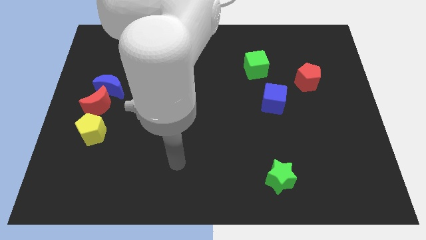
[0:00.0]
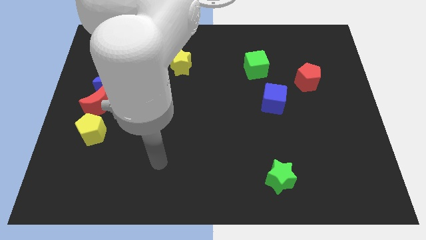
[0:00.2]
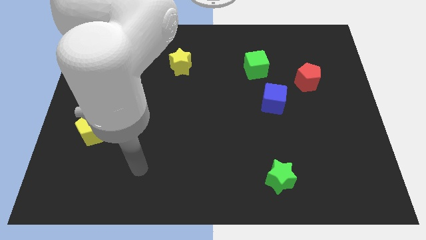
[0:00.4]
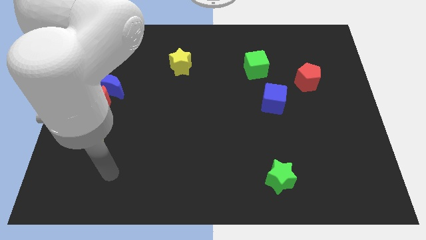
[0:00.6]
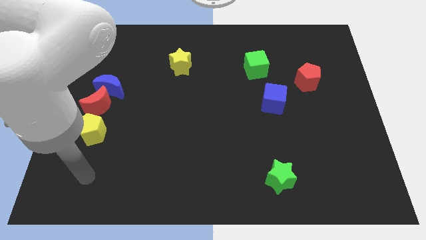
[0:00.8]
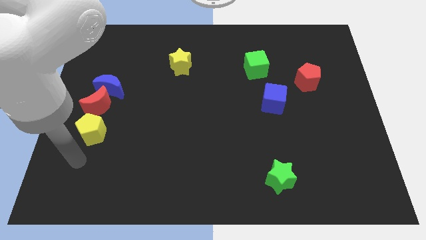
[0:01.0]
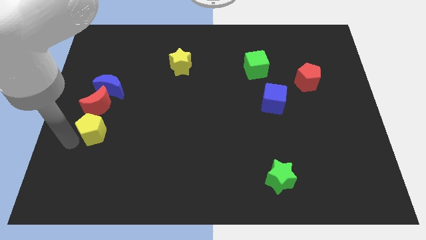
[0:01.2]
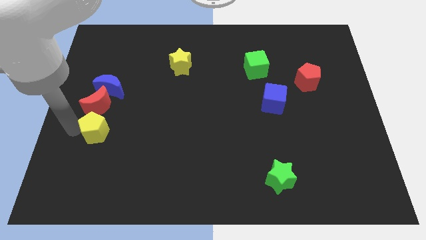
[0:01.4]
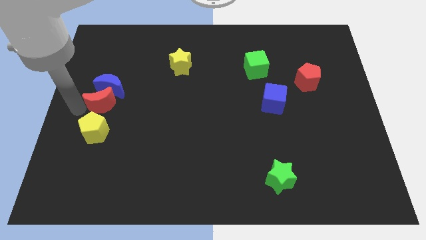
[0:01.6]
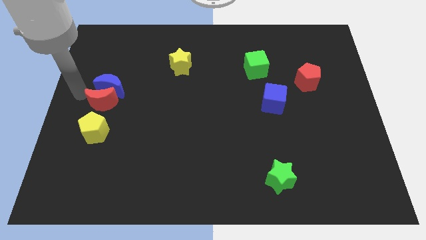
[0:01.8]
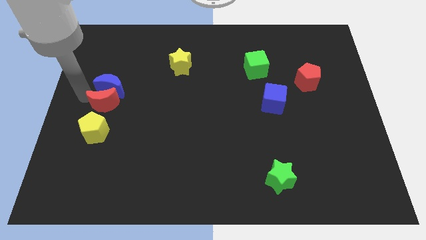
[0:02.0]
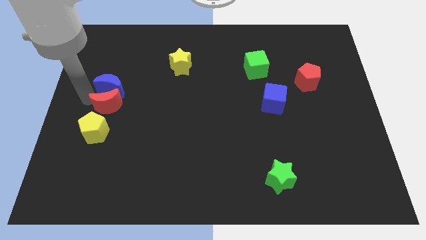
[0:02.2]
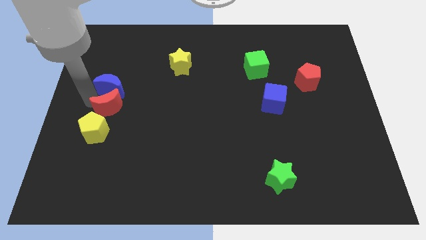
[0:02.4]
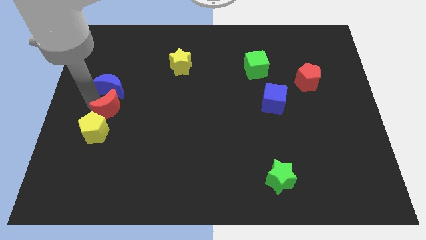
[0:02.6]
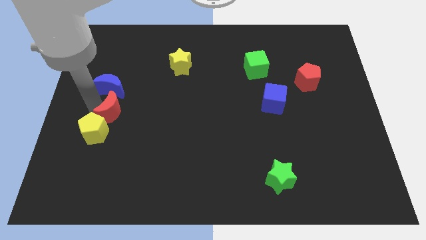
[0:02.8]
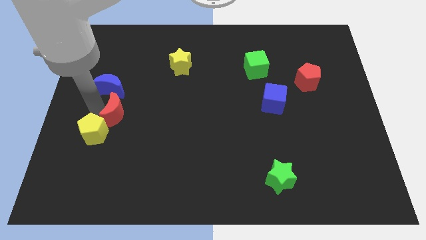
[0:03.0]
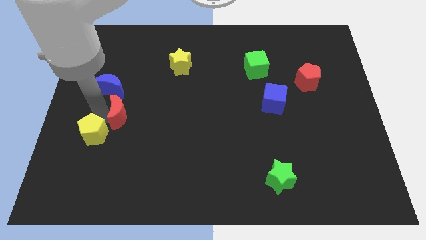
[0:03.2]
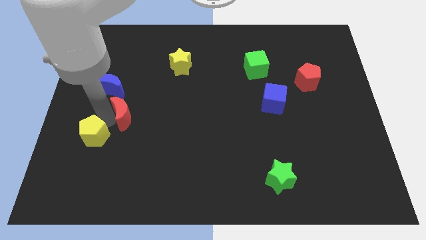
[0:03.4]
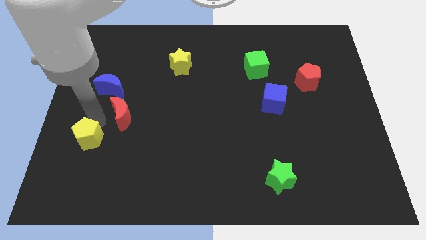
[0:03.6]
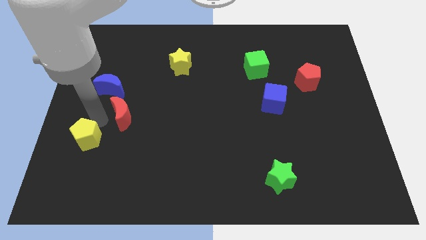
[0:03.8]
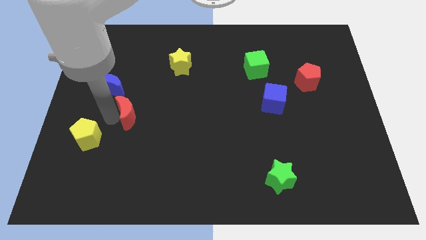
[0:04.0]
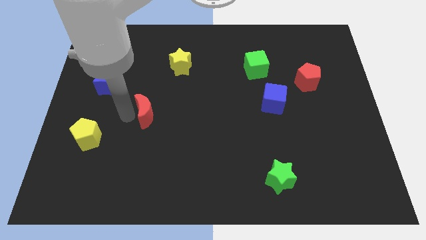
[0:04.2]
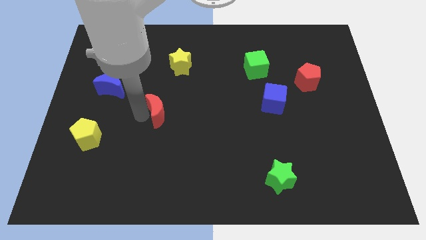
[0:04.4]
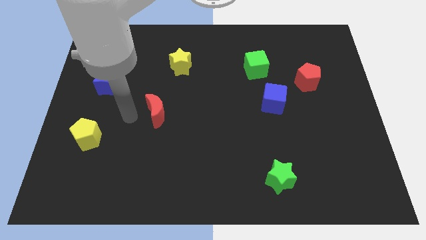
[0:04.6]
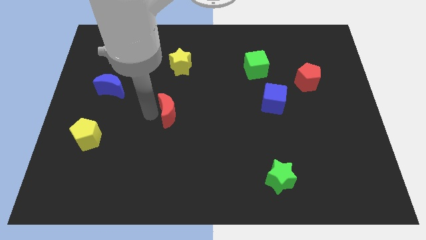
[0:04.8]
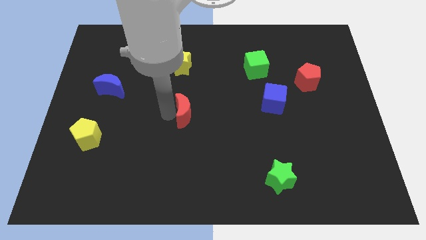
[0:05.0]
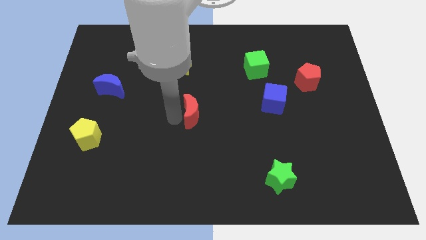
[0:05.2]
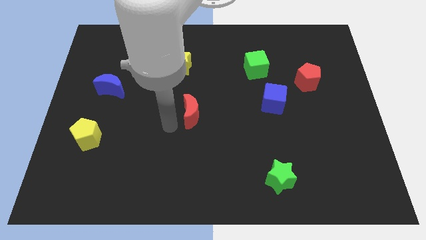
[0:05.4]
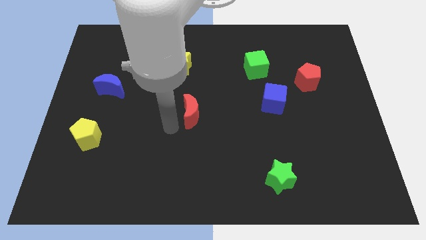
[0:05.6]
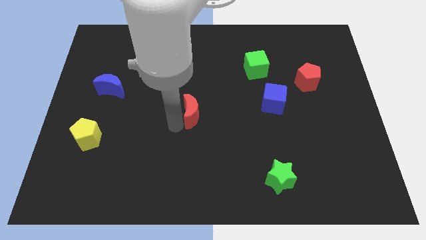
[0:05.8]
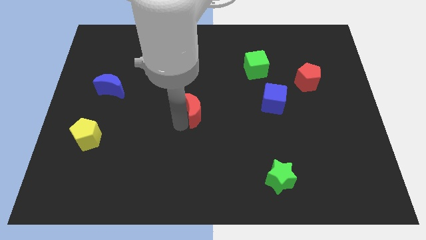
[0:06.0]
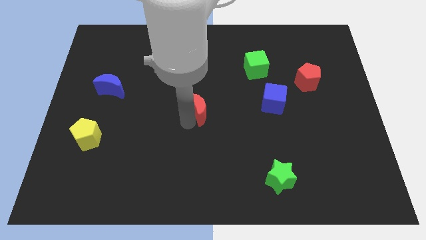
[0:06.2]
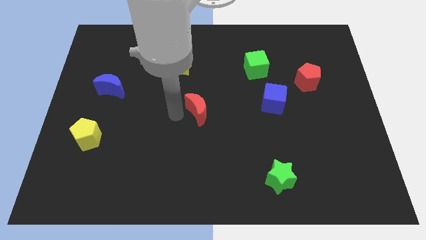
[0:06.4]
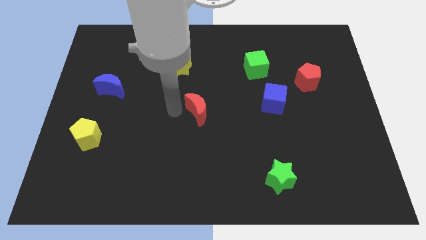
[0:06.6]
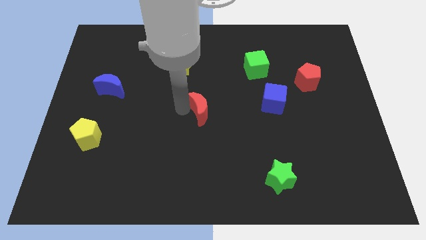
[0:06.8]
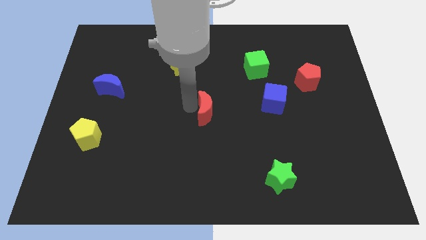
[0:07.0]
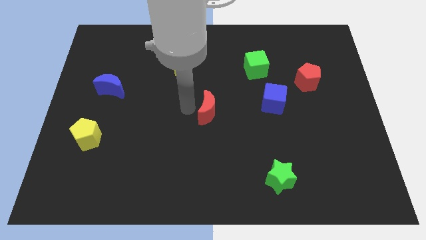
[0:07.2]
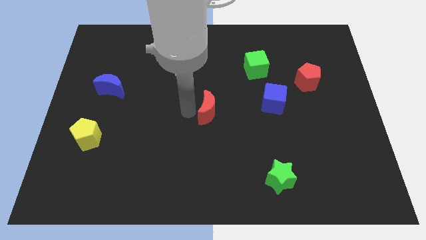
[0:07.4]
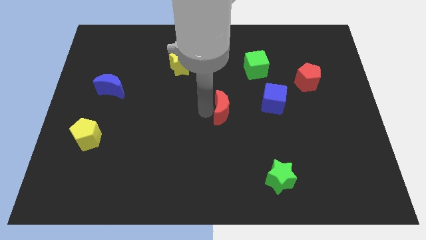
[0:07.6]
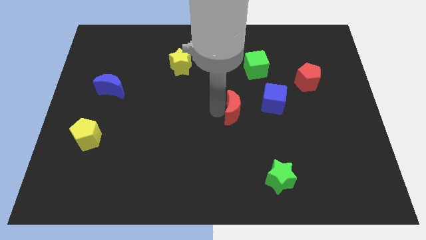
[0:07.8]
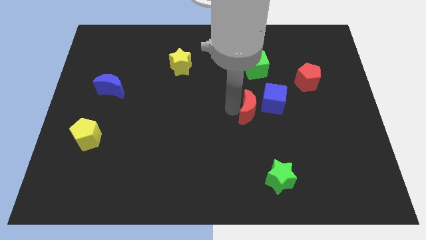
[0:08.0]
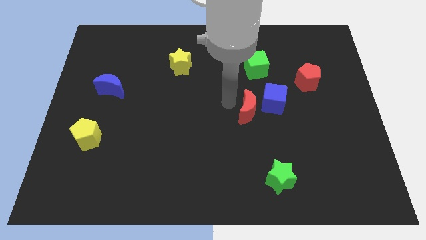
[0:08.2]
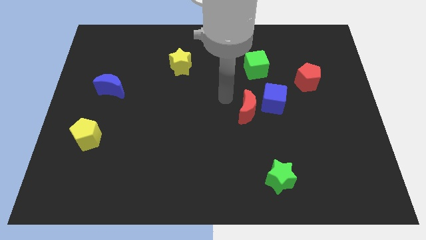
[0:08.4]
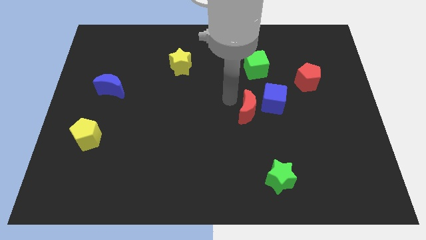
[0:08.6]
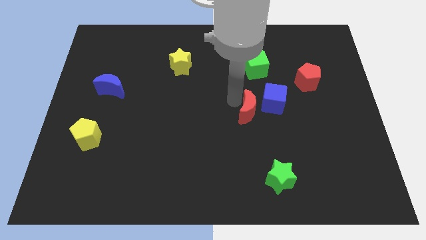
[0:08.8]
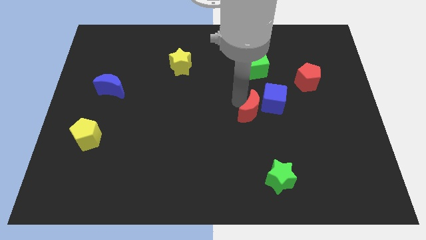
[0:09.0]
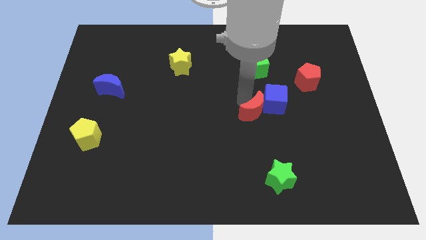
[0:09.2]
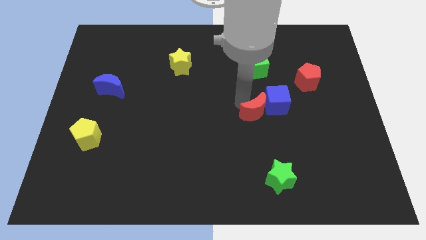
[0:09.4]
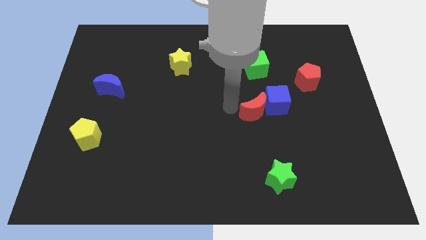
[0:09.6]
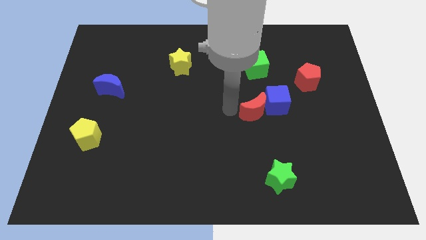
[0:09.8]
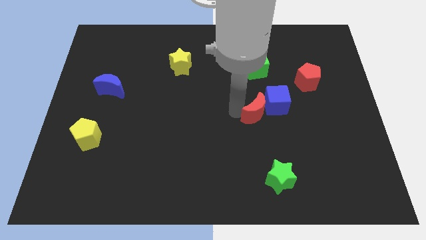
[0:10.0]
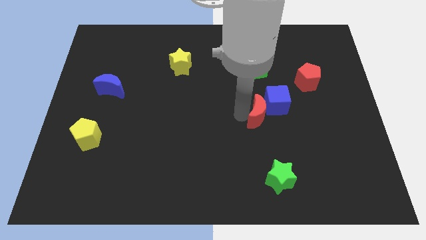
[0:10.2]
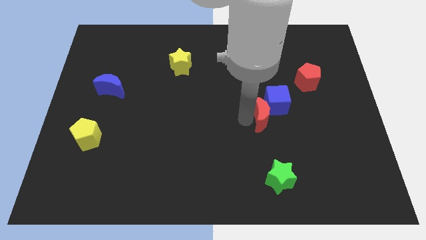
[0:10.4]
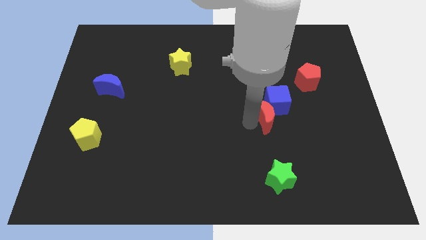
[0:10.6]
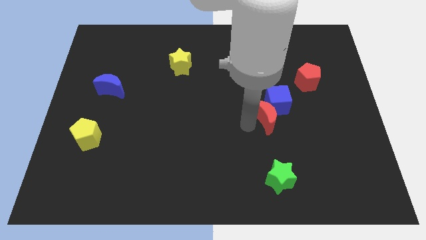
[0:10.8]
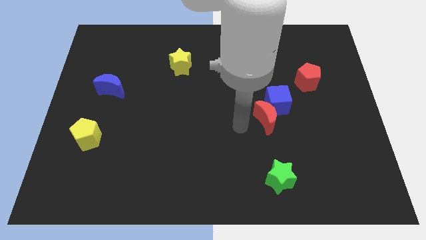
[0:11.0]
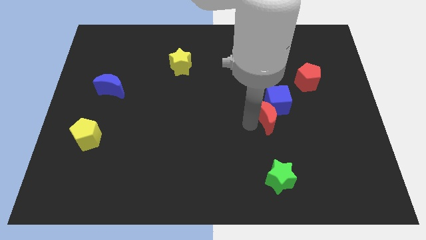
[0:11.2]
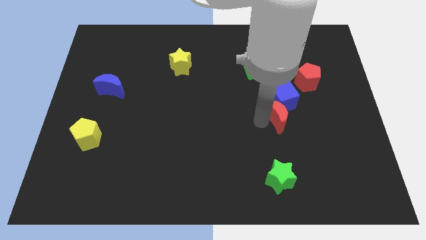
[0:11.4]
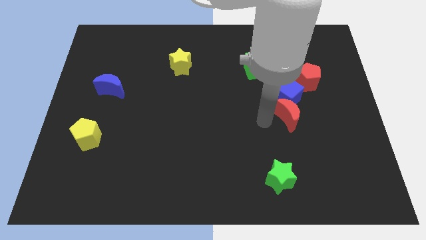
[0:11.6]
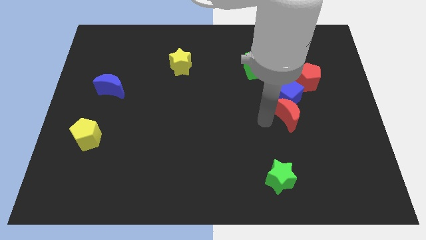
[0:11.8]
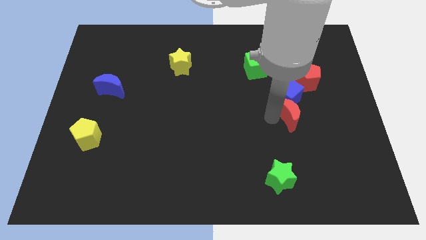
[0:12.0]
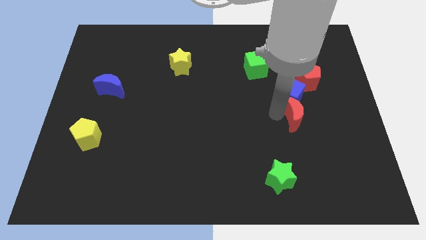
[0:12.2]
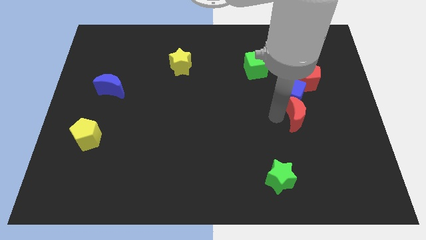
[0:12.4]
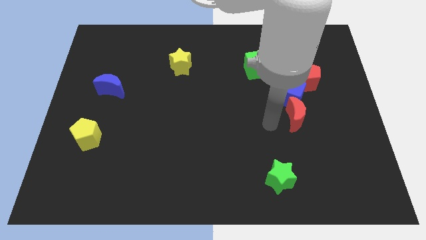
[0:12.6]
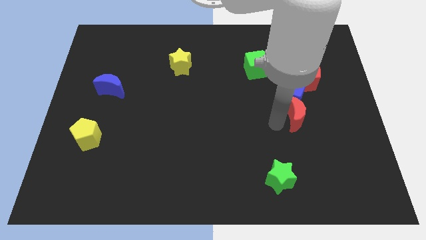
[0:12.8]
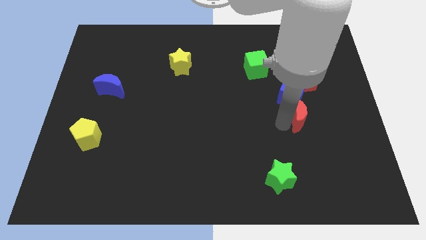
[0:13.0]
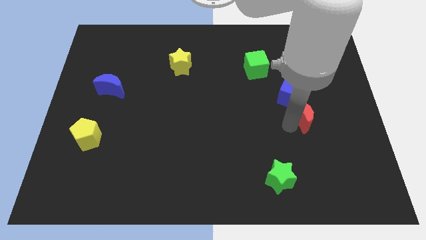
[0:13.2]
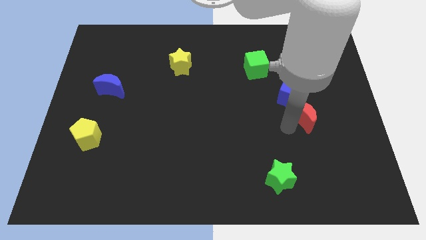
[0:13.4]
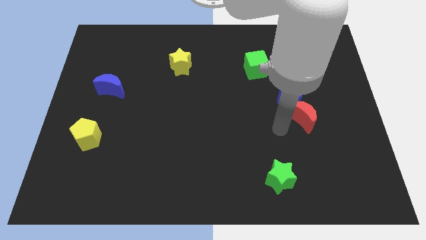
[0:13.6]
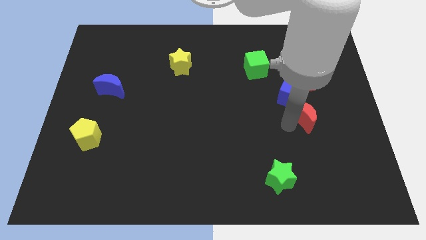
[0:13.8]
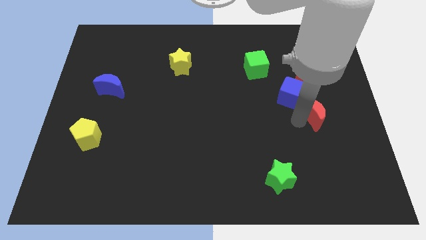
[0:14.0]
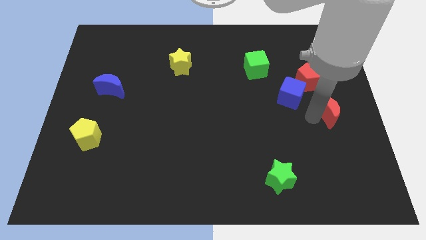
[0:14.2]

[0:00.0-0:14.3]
slide the red moon to the center right
